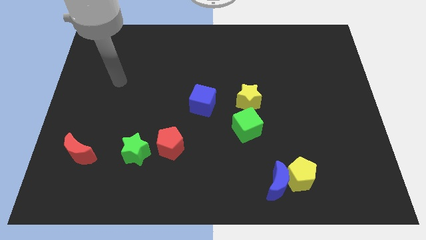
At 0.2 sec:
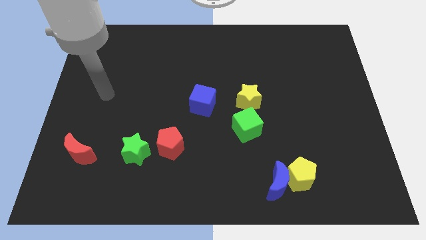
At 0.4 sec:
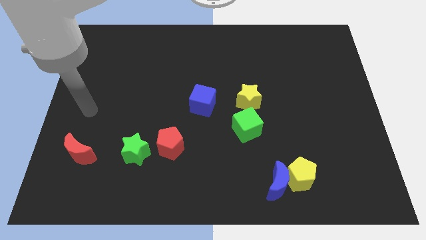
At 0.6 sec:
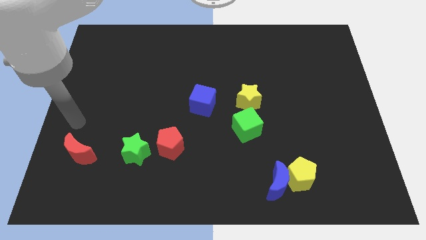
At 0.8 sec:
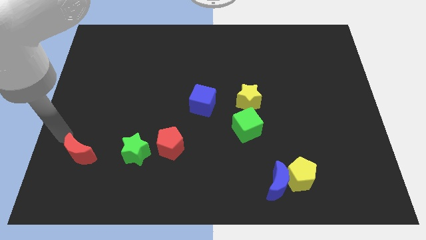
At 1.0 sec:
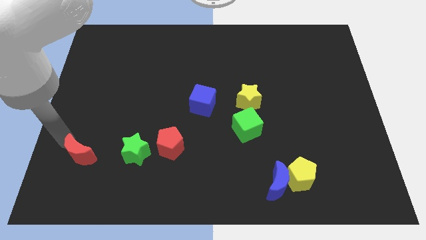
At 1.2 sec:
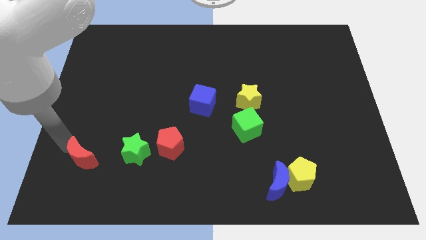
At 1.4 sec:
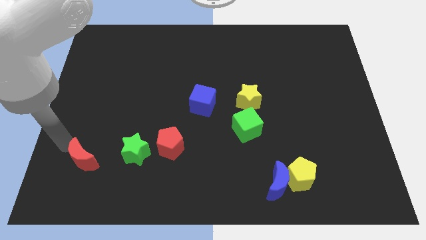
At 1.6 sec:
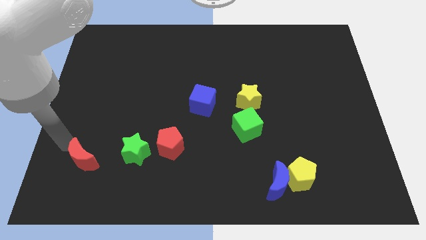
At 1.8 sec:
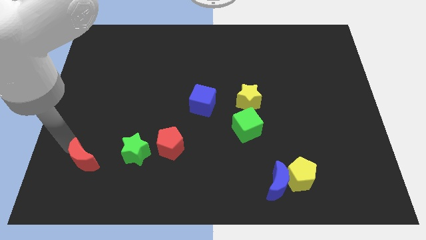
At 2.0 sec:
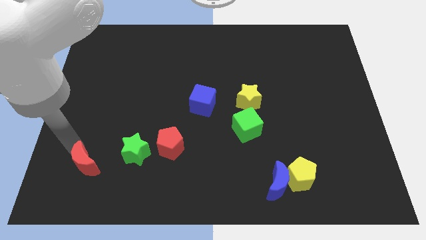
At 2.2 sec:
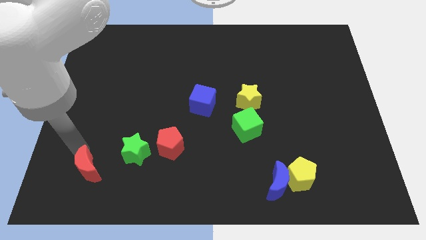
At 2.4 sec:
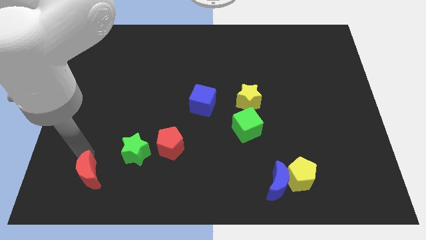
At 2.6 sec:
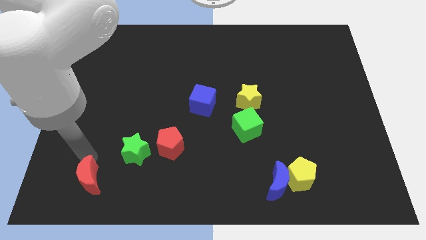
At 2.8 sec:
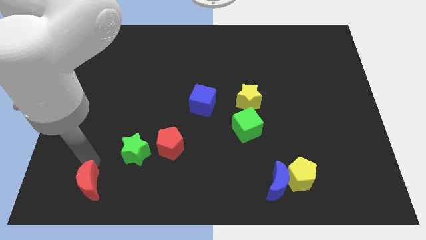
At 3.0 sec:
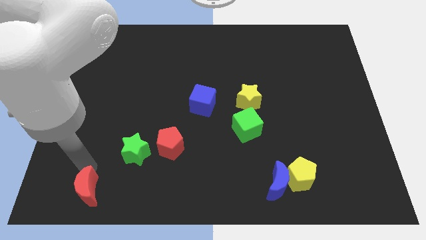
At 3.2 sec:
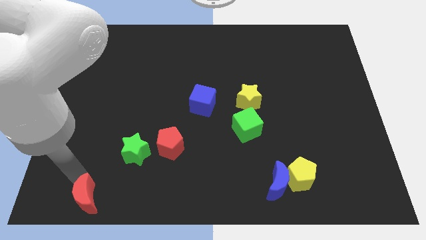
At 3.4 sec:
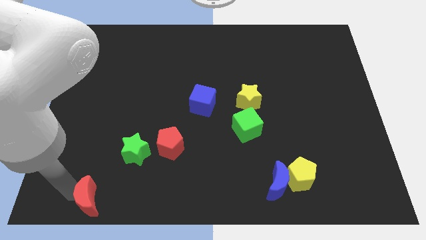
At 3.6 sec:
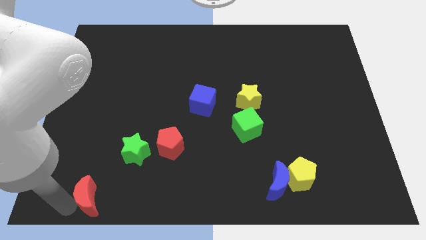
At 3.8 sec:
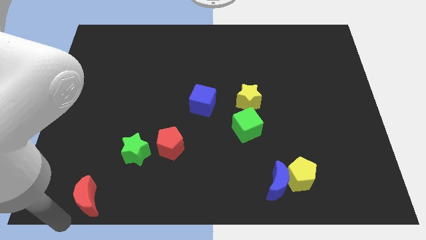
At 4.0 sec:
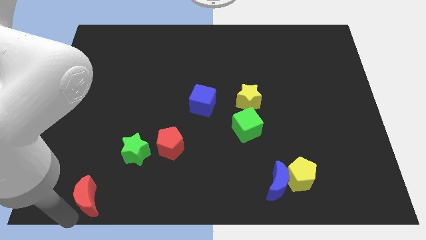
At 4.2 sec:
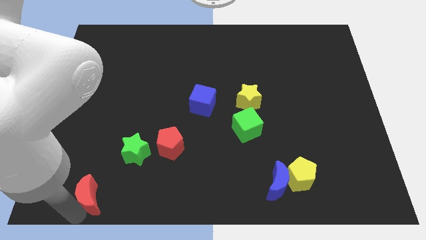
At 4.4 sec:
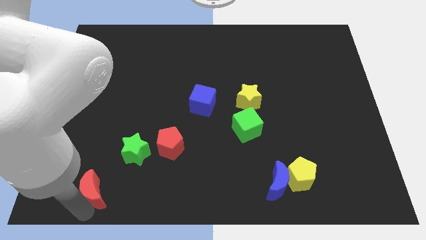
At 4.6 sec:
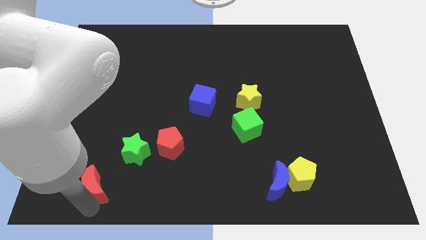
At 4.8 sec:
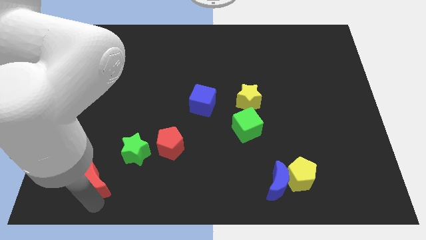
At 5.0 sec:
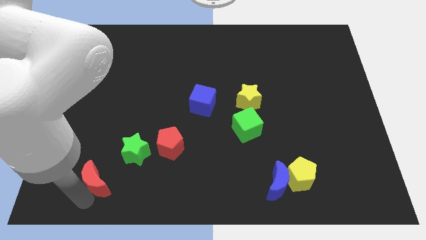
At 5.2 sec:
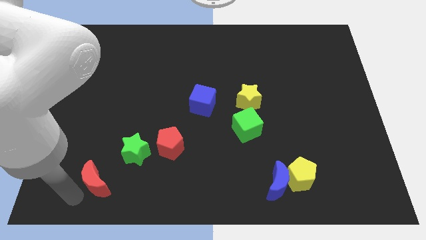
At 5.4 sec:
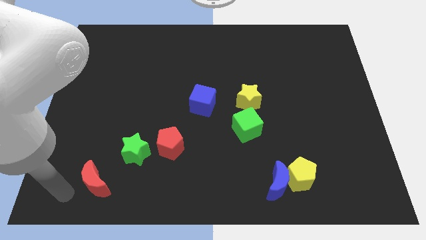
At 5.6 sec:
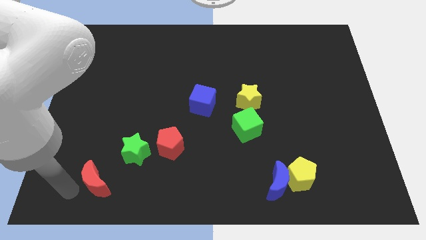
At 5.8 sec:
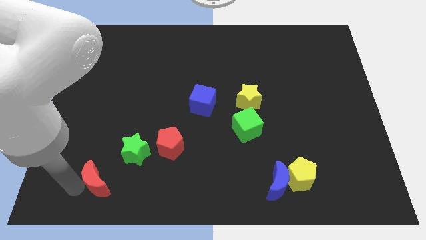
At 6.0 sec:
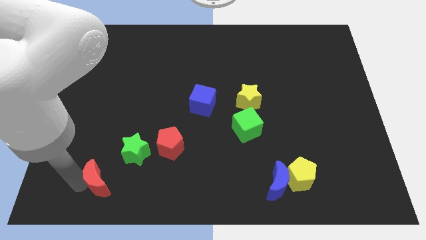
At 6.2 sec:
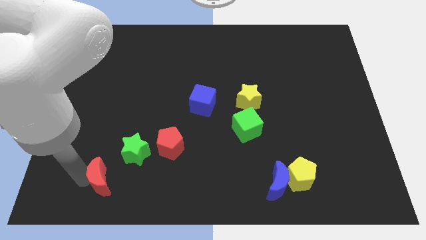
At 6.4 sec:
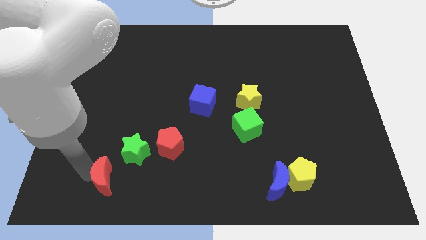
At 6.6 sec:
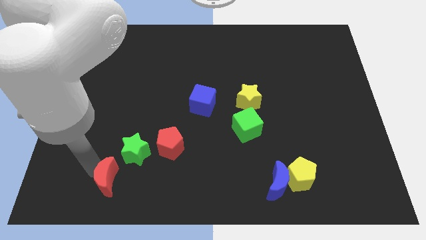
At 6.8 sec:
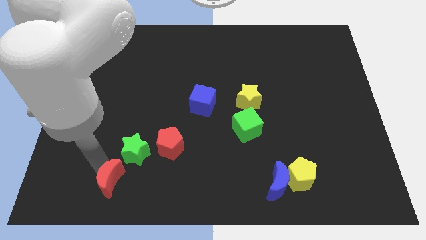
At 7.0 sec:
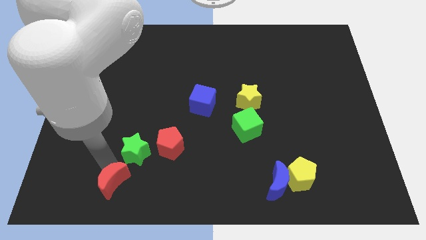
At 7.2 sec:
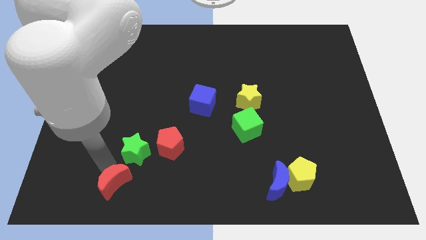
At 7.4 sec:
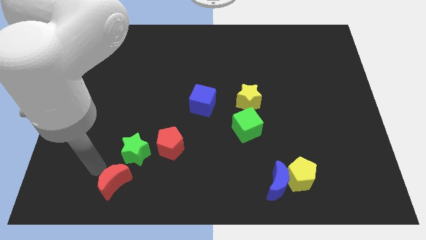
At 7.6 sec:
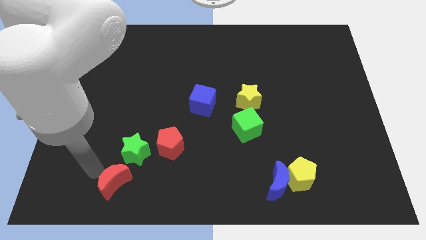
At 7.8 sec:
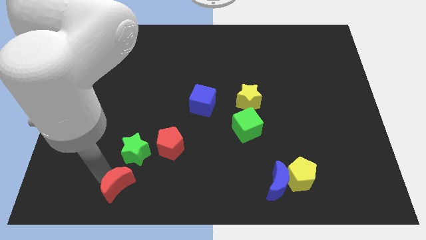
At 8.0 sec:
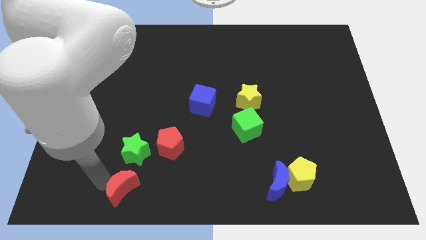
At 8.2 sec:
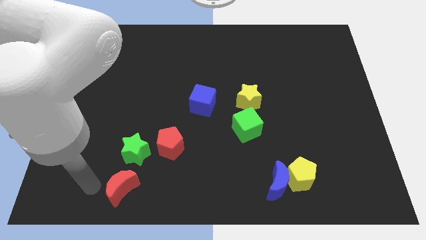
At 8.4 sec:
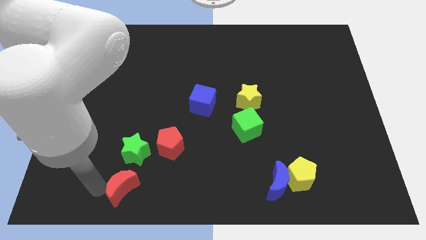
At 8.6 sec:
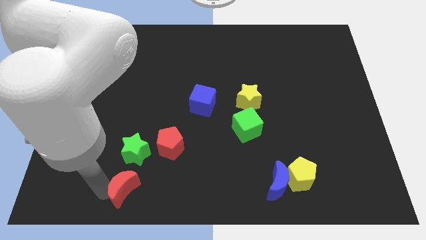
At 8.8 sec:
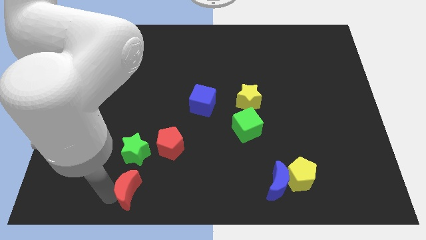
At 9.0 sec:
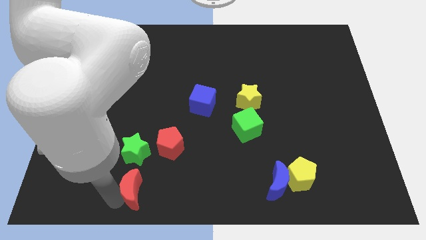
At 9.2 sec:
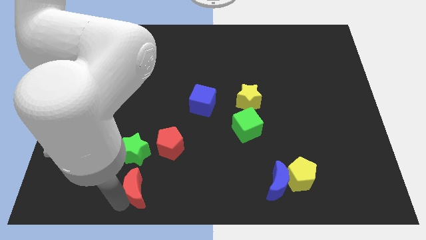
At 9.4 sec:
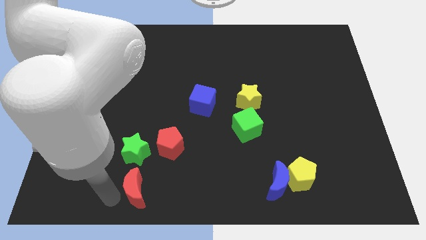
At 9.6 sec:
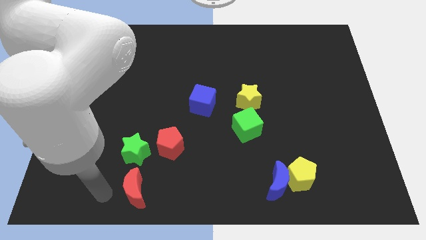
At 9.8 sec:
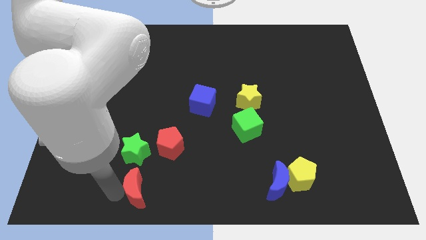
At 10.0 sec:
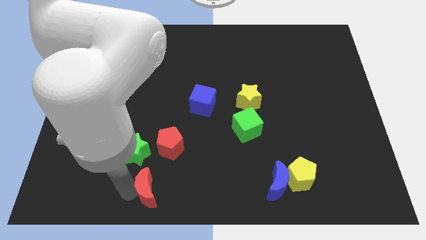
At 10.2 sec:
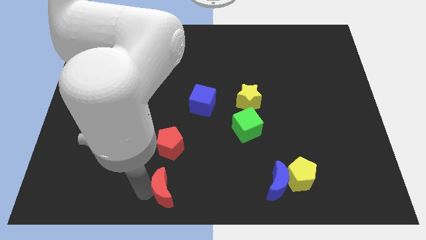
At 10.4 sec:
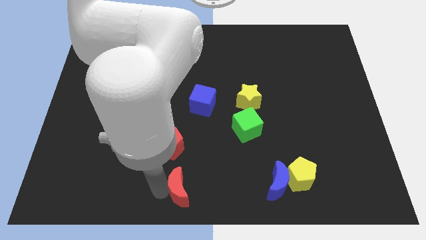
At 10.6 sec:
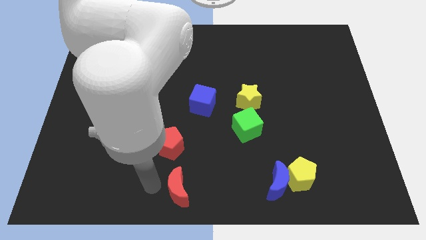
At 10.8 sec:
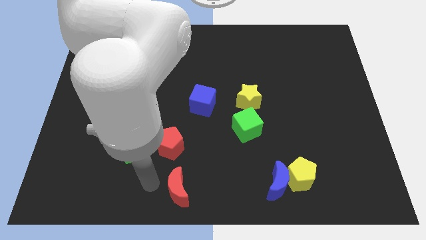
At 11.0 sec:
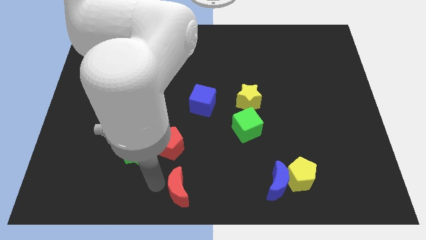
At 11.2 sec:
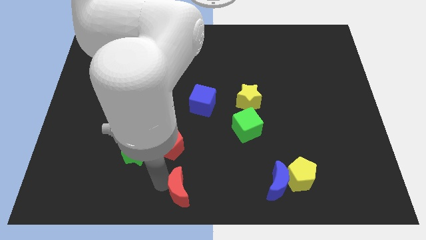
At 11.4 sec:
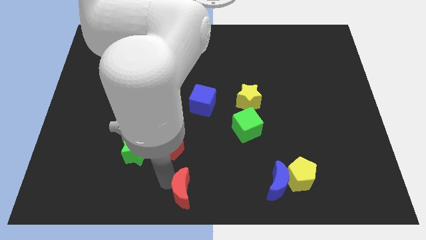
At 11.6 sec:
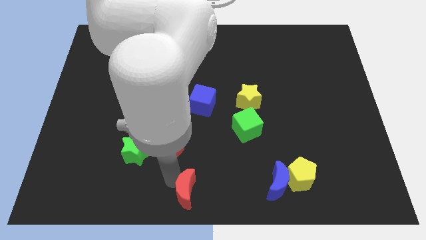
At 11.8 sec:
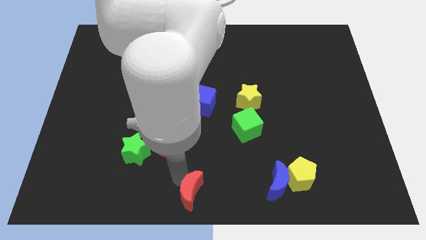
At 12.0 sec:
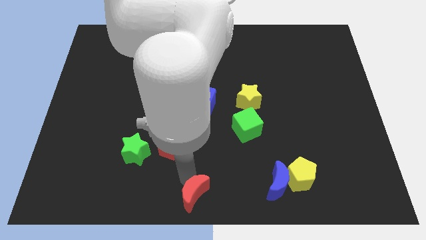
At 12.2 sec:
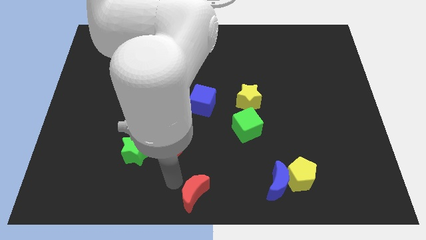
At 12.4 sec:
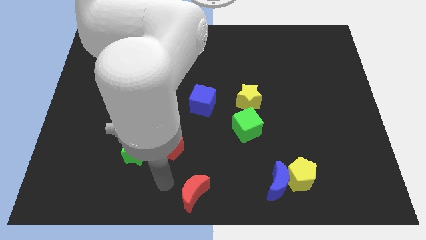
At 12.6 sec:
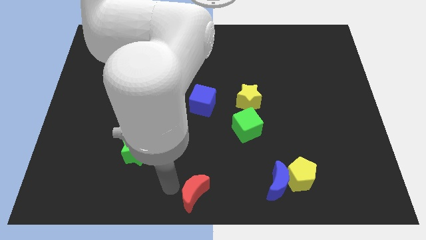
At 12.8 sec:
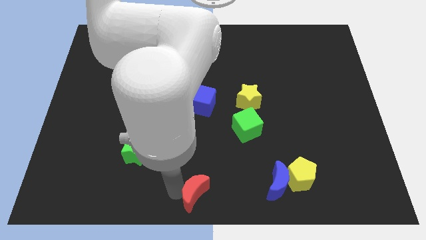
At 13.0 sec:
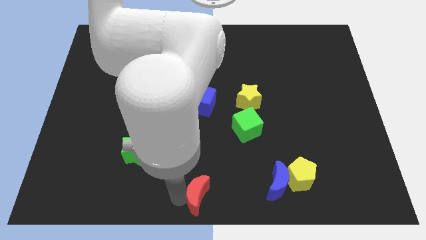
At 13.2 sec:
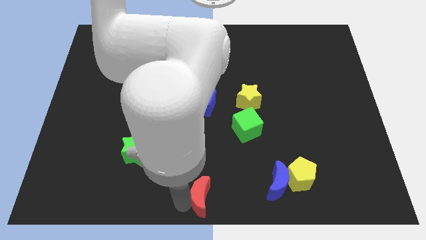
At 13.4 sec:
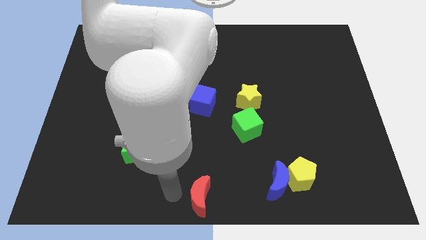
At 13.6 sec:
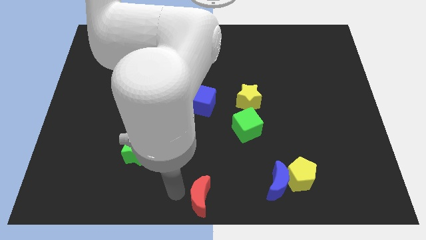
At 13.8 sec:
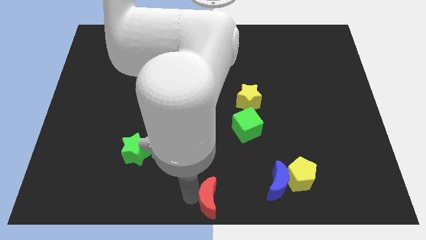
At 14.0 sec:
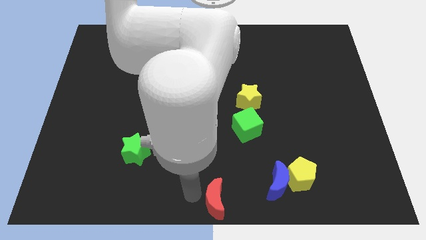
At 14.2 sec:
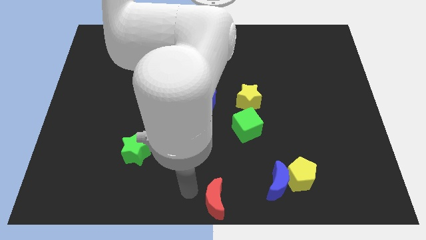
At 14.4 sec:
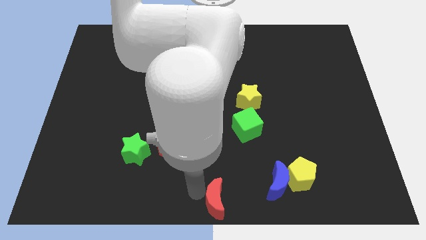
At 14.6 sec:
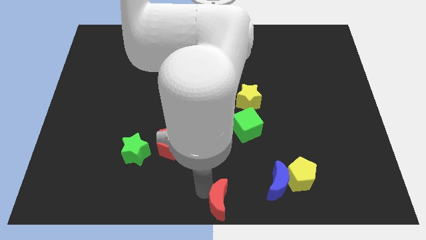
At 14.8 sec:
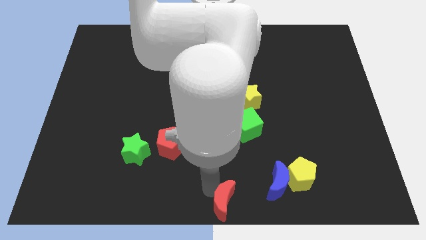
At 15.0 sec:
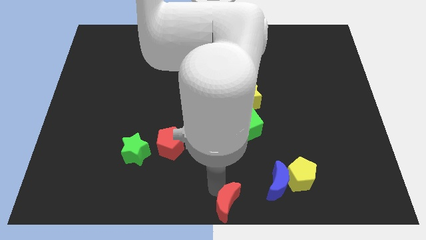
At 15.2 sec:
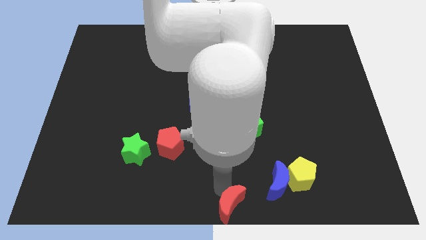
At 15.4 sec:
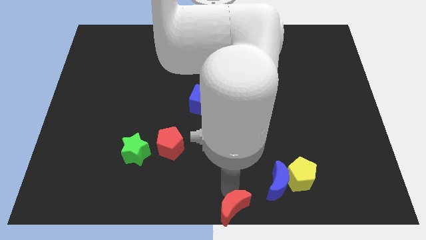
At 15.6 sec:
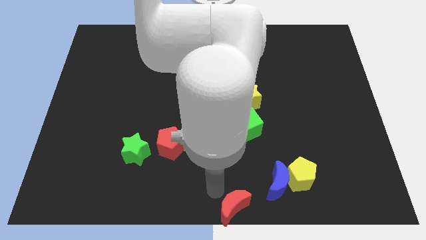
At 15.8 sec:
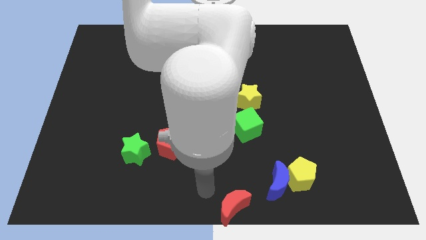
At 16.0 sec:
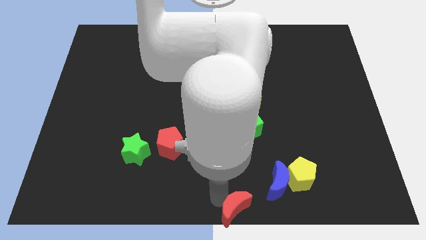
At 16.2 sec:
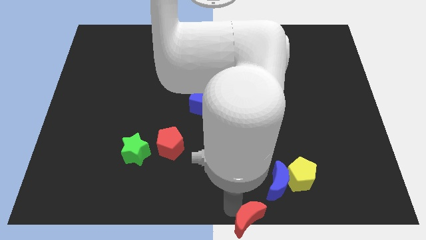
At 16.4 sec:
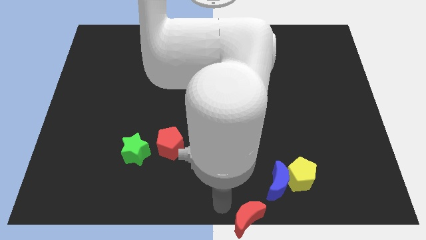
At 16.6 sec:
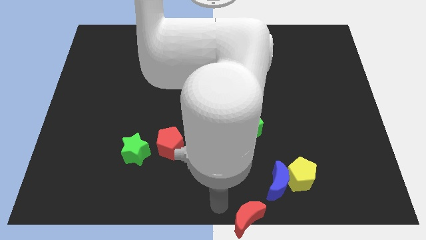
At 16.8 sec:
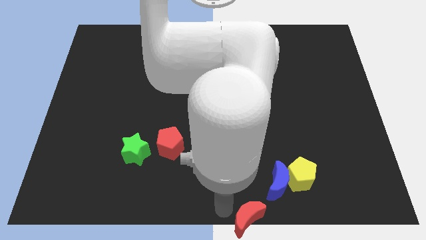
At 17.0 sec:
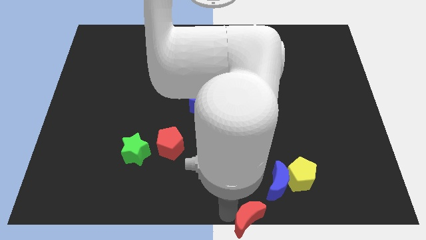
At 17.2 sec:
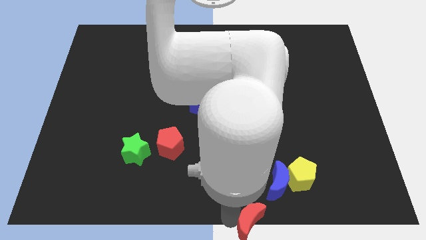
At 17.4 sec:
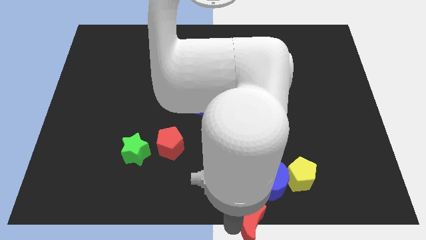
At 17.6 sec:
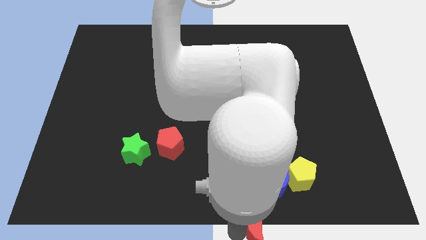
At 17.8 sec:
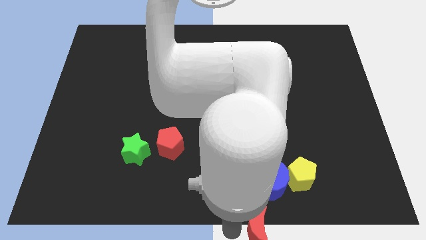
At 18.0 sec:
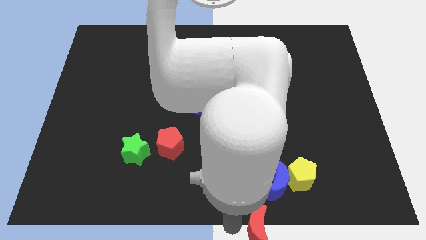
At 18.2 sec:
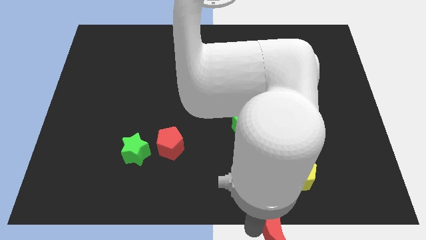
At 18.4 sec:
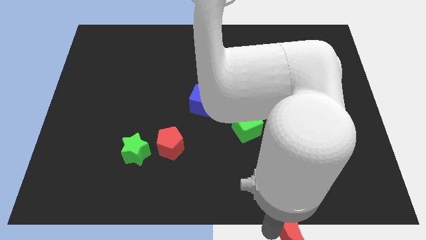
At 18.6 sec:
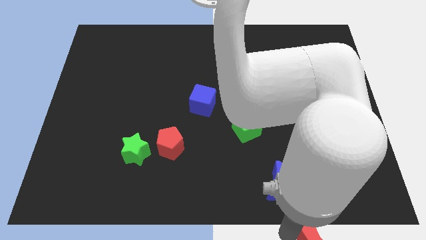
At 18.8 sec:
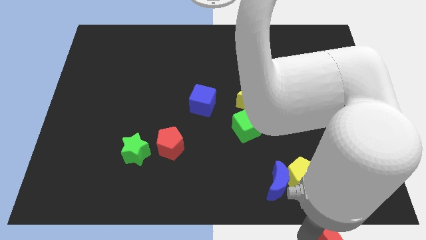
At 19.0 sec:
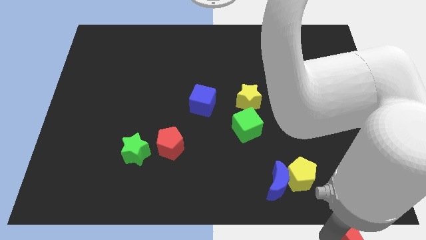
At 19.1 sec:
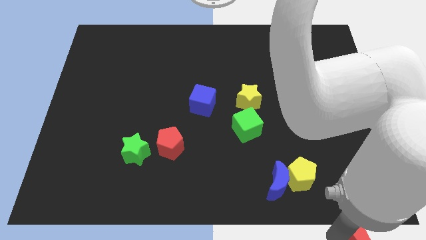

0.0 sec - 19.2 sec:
put the red moon to the bottom right of the board
